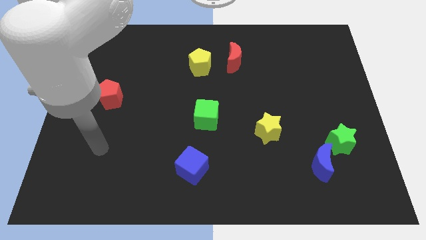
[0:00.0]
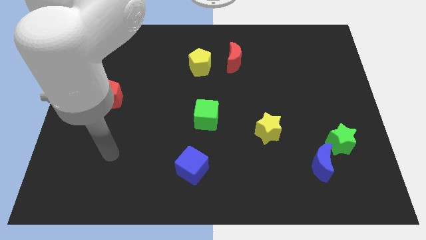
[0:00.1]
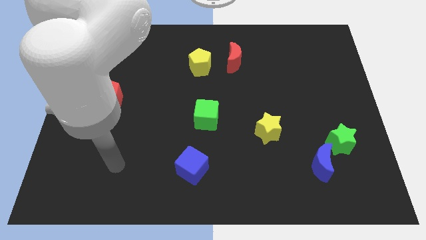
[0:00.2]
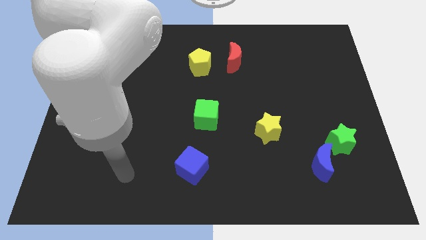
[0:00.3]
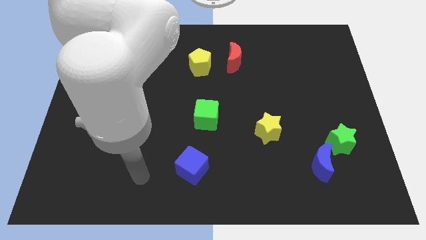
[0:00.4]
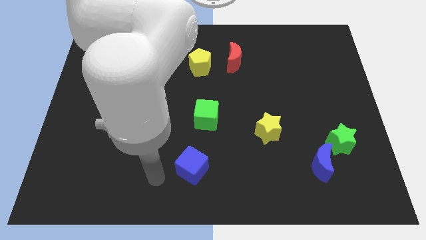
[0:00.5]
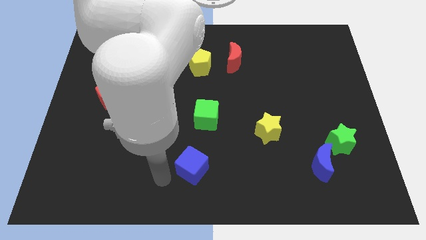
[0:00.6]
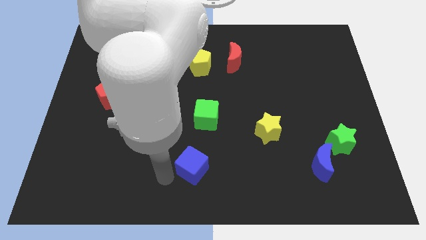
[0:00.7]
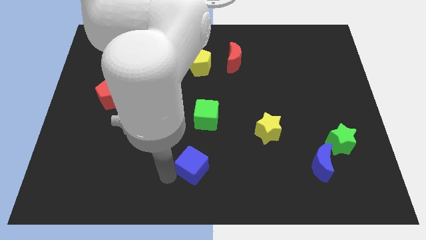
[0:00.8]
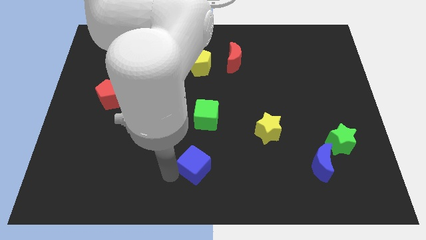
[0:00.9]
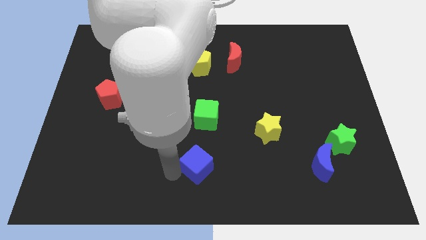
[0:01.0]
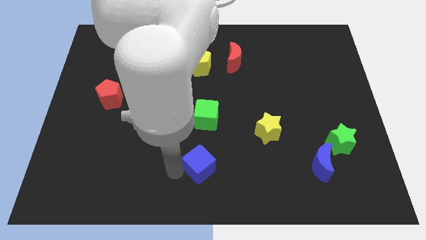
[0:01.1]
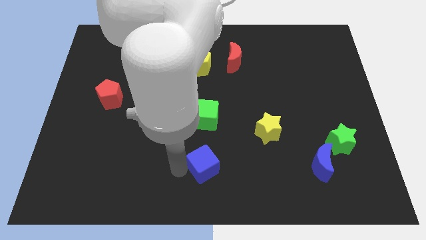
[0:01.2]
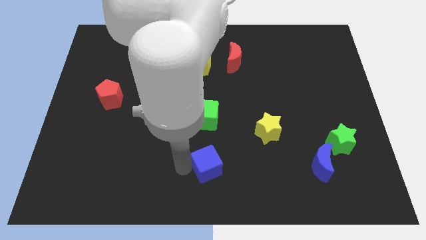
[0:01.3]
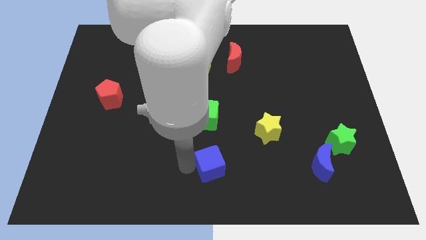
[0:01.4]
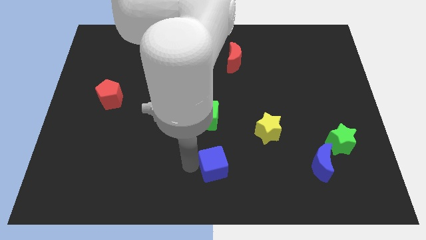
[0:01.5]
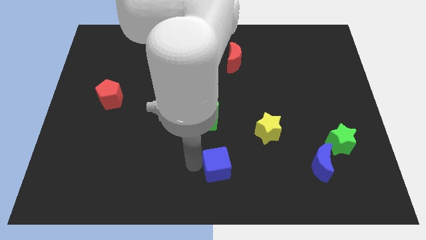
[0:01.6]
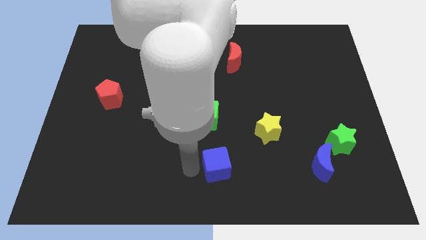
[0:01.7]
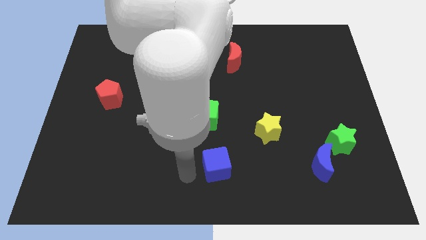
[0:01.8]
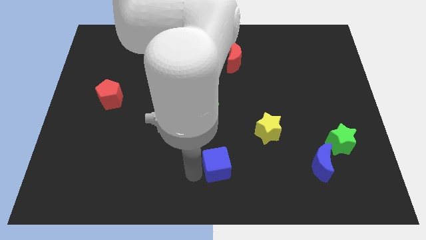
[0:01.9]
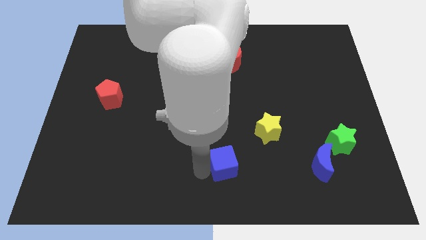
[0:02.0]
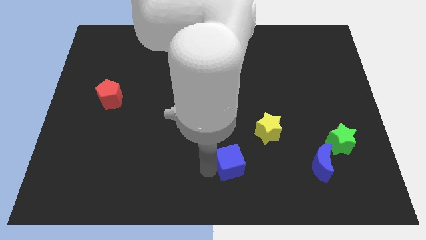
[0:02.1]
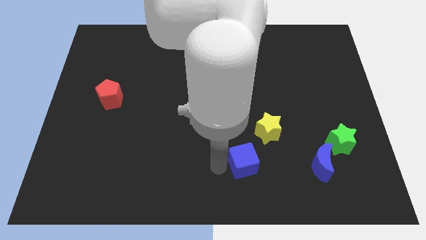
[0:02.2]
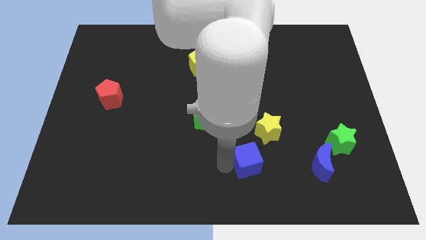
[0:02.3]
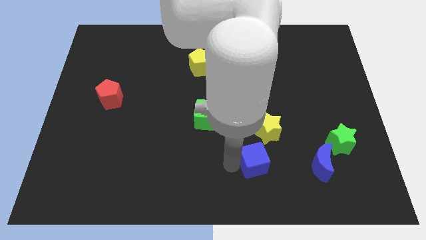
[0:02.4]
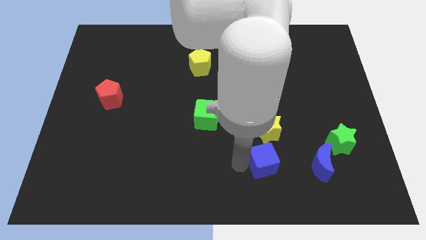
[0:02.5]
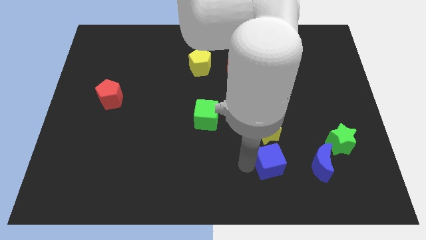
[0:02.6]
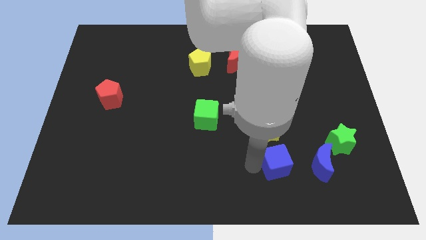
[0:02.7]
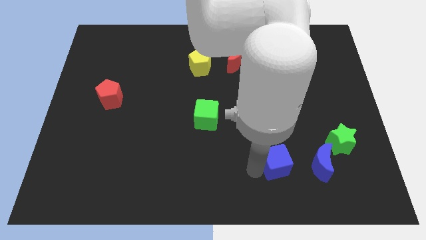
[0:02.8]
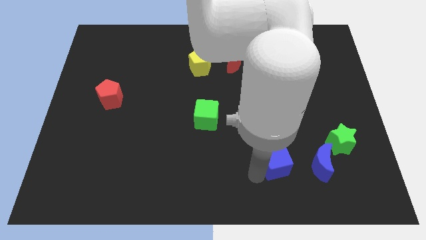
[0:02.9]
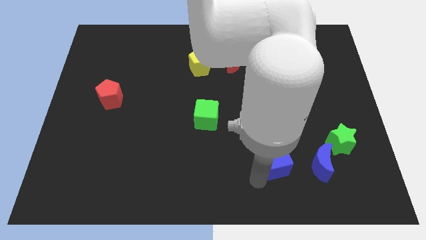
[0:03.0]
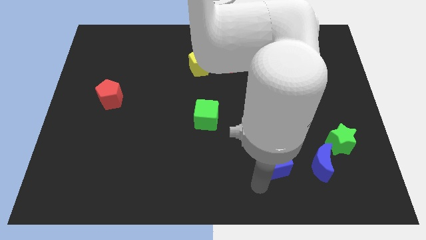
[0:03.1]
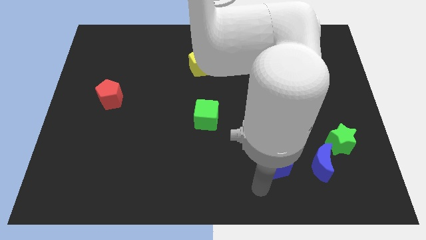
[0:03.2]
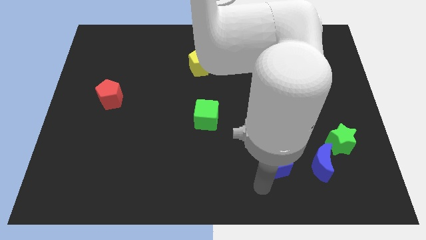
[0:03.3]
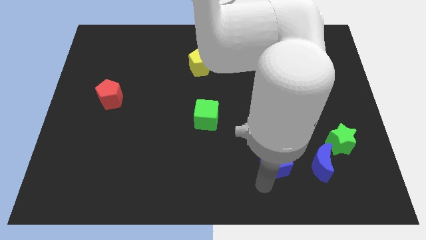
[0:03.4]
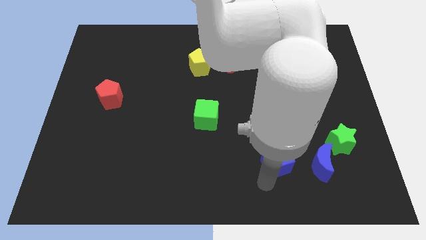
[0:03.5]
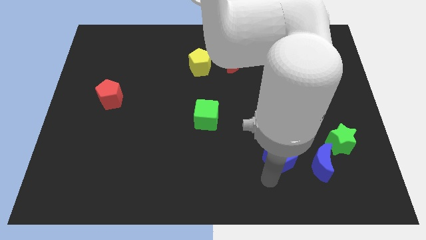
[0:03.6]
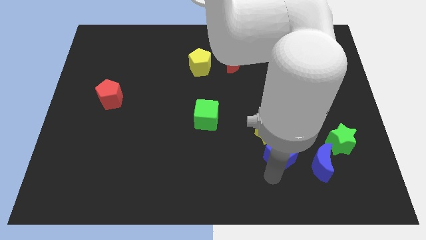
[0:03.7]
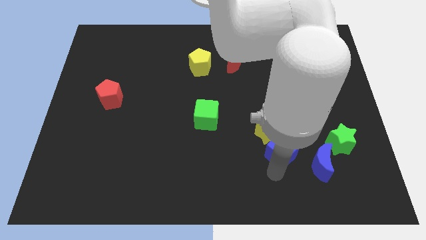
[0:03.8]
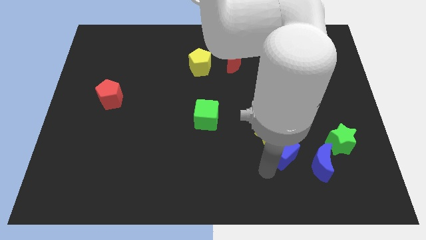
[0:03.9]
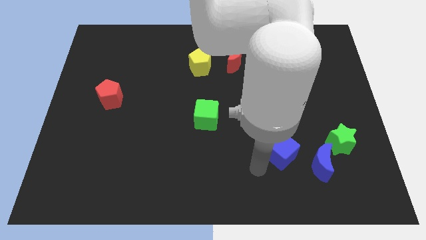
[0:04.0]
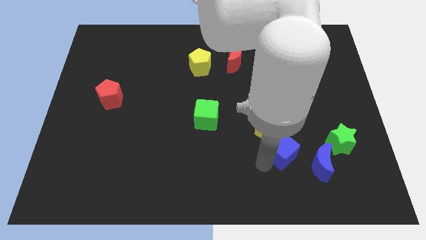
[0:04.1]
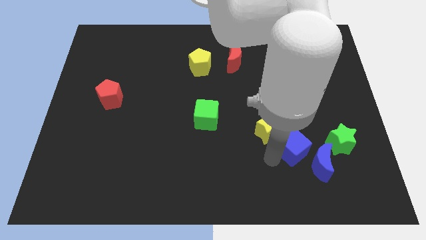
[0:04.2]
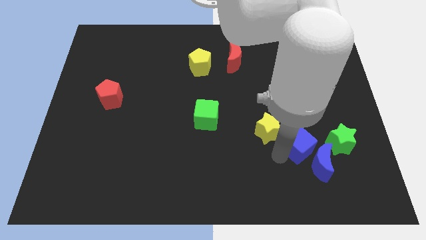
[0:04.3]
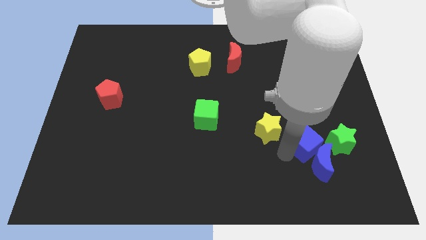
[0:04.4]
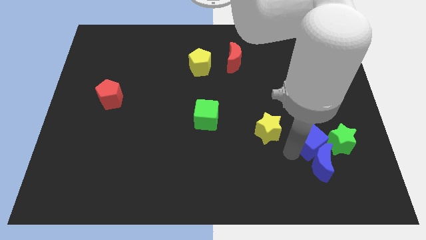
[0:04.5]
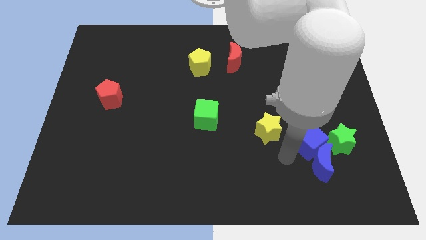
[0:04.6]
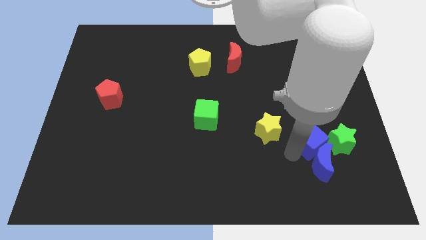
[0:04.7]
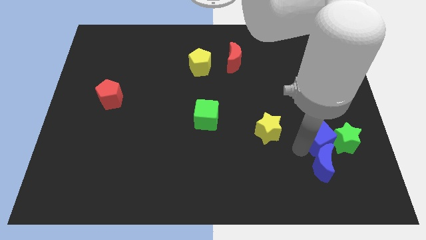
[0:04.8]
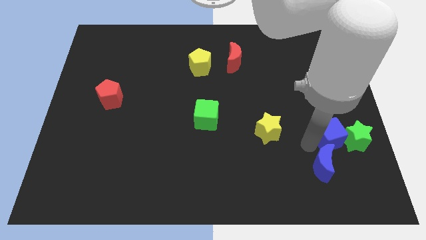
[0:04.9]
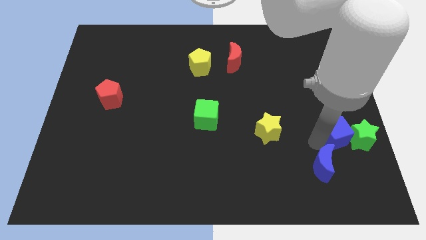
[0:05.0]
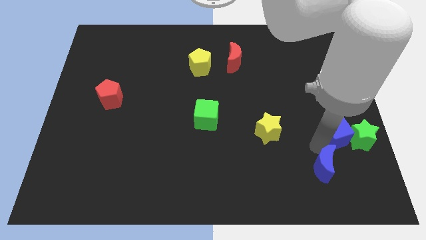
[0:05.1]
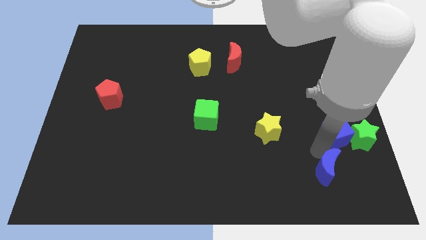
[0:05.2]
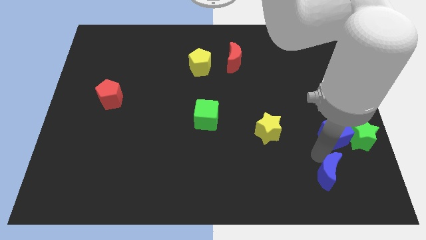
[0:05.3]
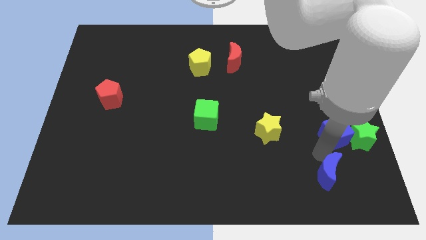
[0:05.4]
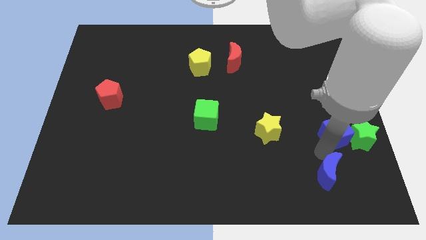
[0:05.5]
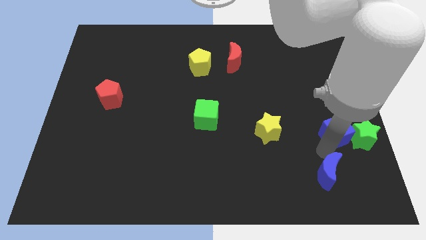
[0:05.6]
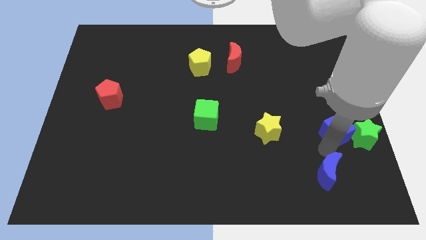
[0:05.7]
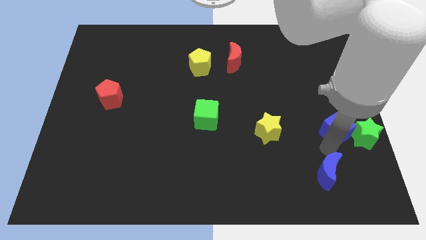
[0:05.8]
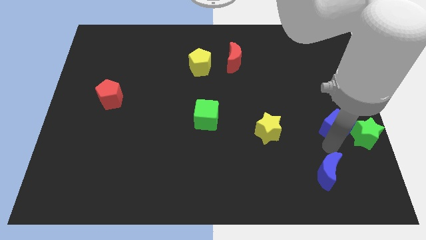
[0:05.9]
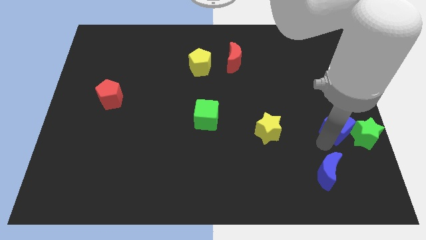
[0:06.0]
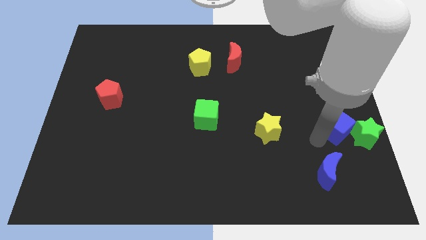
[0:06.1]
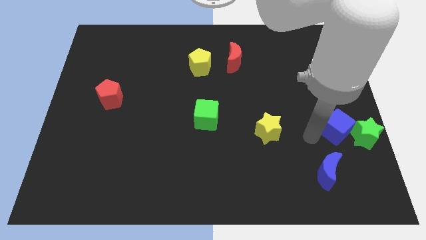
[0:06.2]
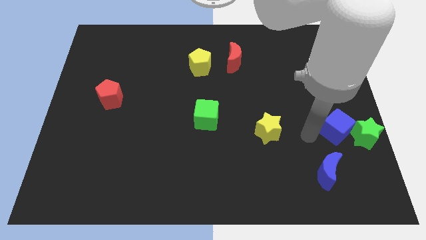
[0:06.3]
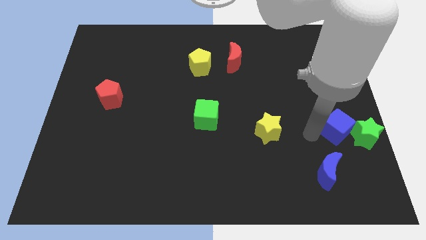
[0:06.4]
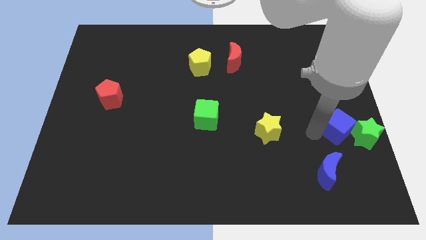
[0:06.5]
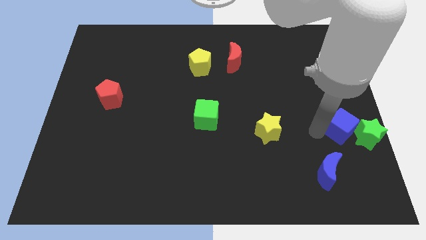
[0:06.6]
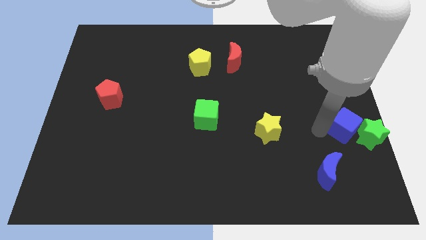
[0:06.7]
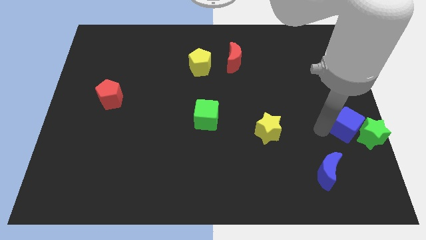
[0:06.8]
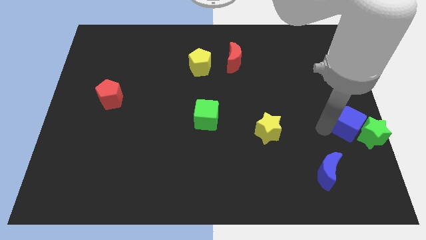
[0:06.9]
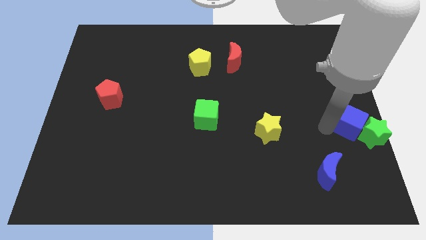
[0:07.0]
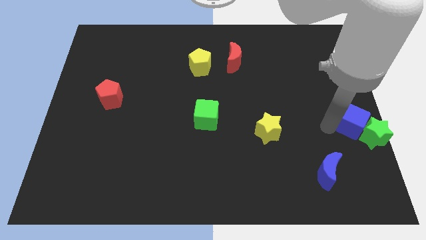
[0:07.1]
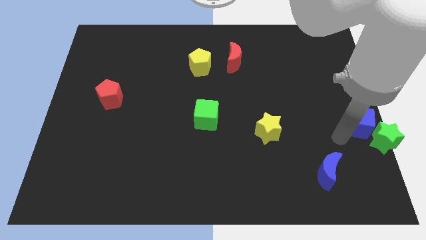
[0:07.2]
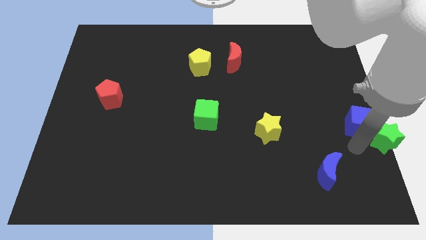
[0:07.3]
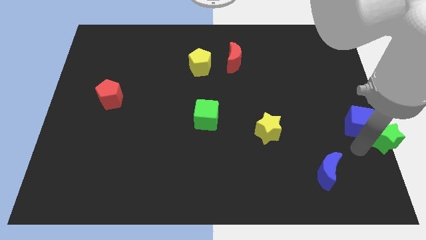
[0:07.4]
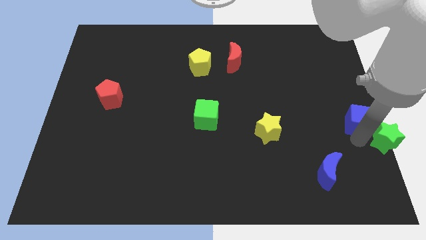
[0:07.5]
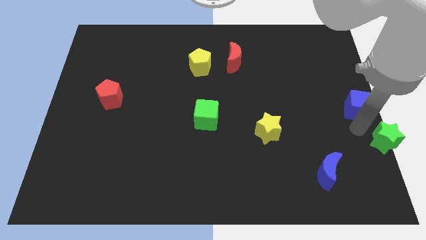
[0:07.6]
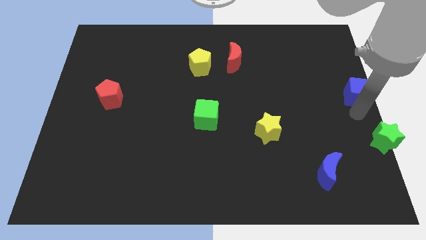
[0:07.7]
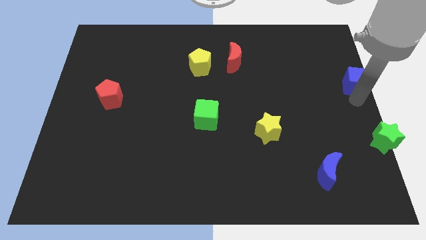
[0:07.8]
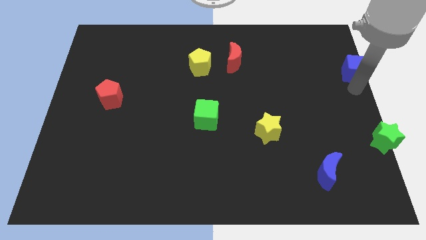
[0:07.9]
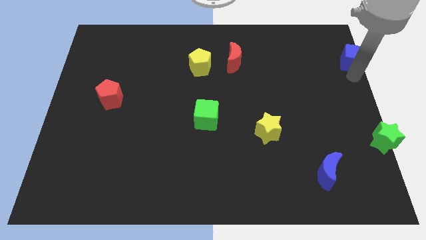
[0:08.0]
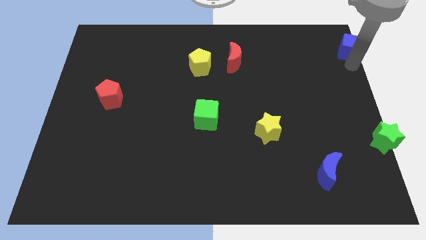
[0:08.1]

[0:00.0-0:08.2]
slide the blue cube to the top right of the board
